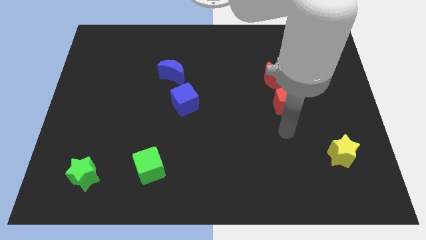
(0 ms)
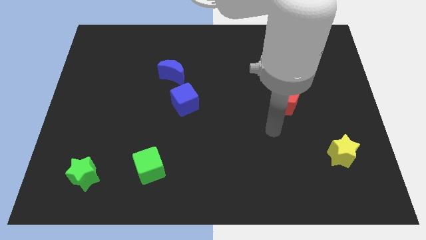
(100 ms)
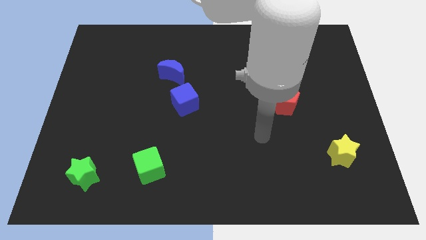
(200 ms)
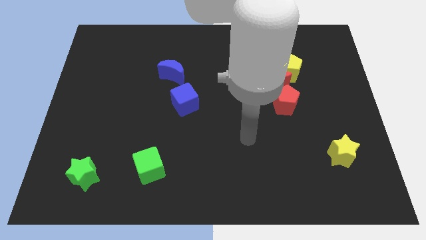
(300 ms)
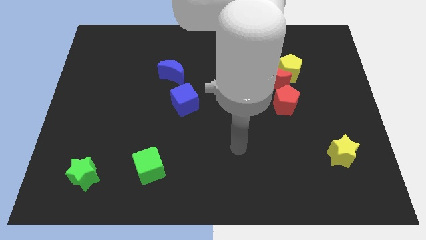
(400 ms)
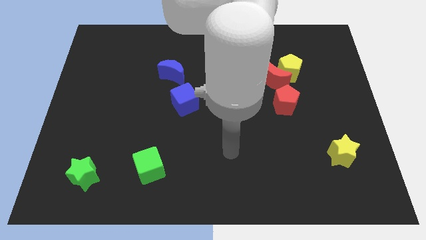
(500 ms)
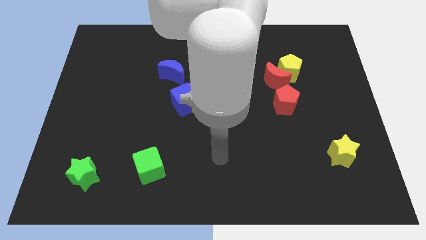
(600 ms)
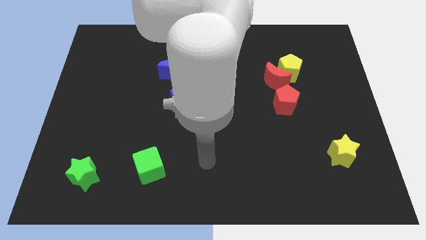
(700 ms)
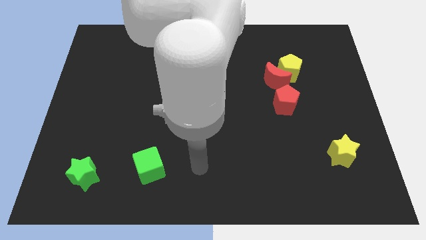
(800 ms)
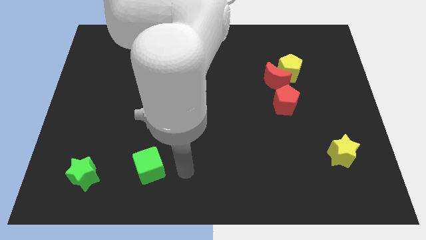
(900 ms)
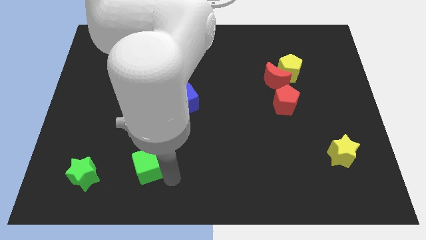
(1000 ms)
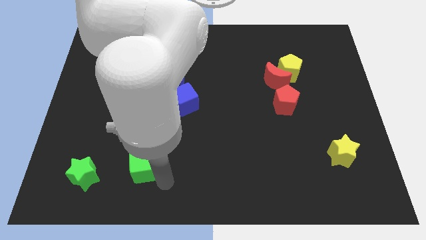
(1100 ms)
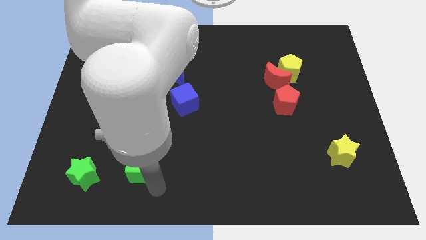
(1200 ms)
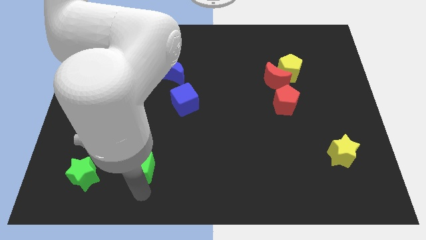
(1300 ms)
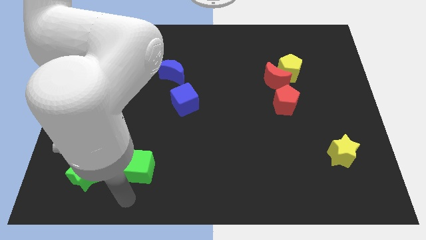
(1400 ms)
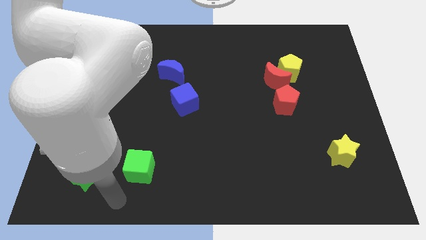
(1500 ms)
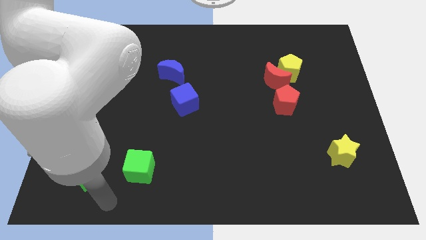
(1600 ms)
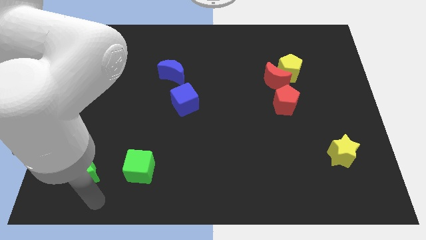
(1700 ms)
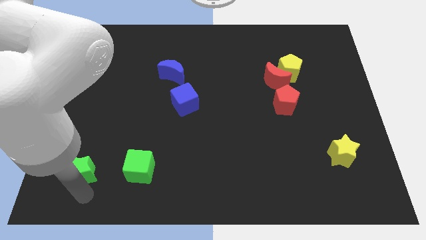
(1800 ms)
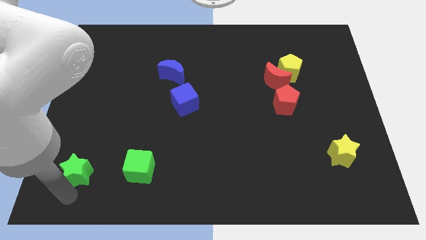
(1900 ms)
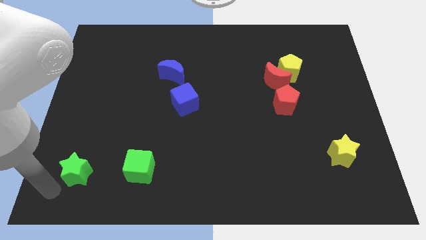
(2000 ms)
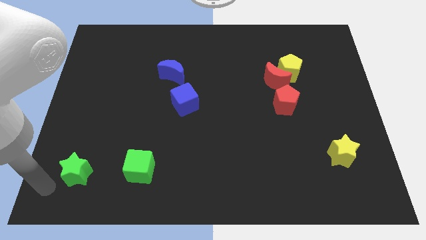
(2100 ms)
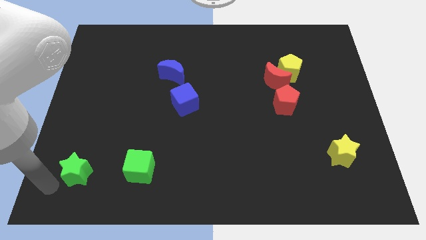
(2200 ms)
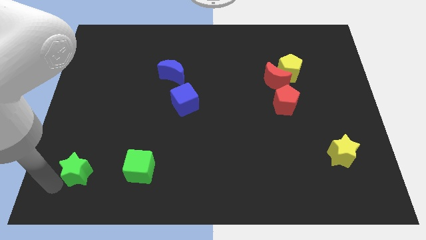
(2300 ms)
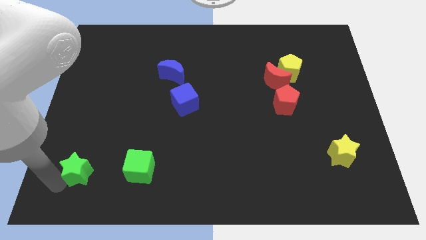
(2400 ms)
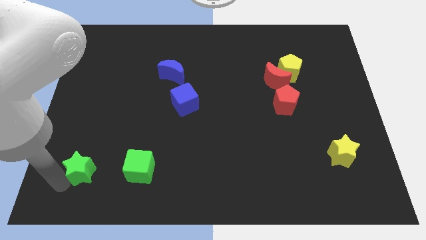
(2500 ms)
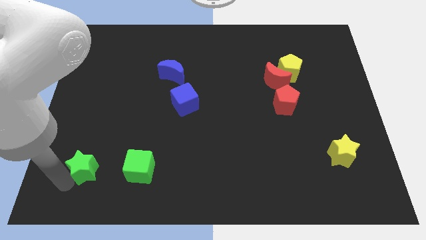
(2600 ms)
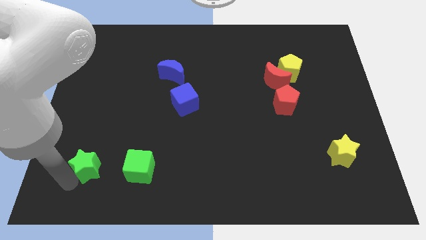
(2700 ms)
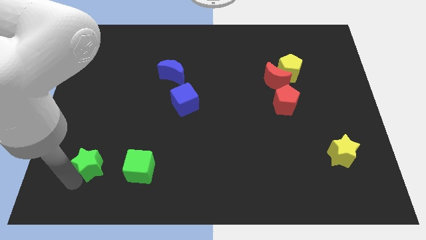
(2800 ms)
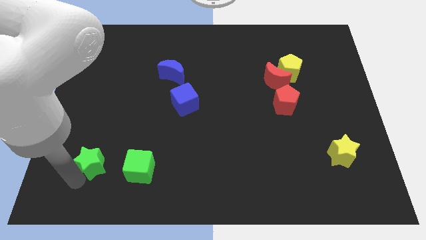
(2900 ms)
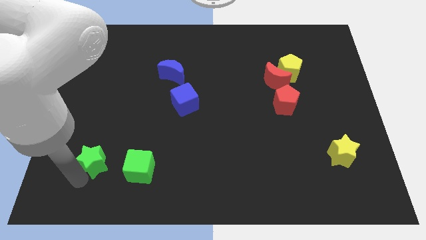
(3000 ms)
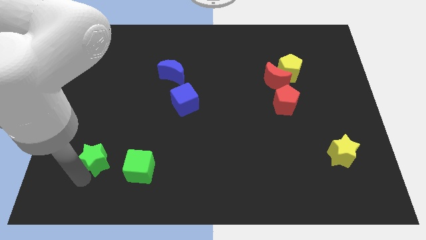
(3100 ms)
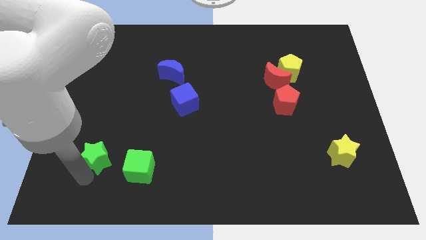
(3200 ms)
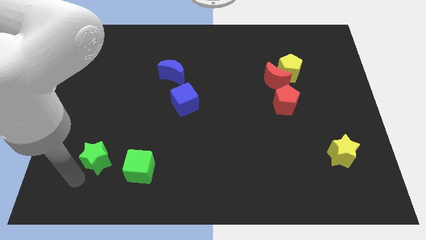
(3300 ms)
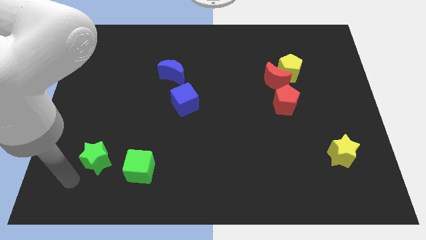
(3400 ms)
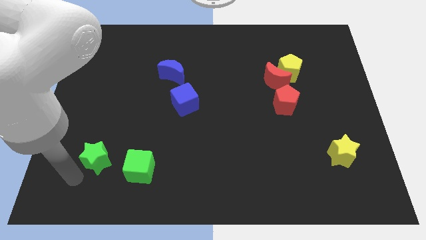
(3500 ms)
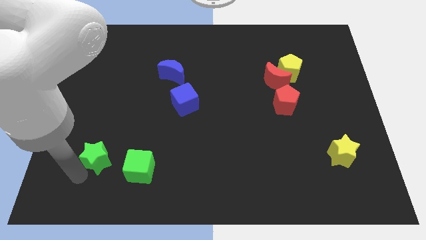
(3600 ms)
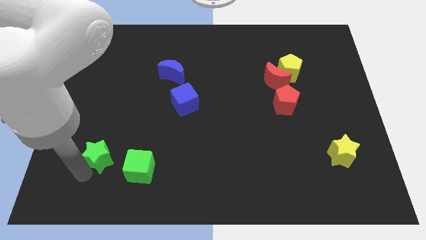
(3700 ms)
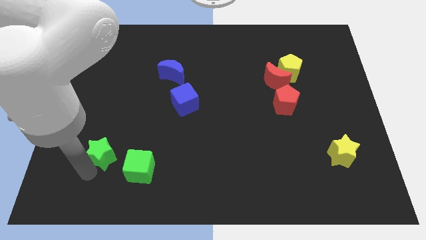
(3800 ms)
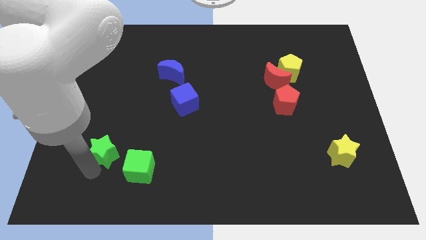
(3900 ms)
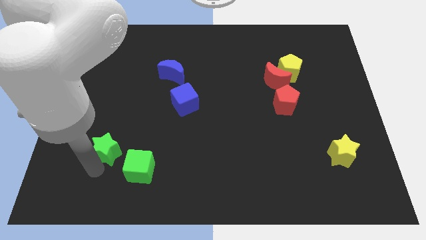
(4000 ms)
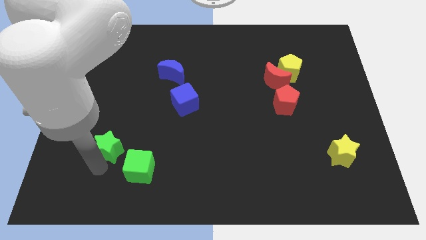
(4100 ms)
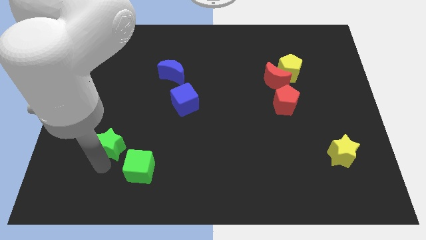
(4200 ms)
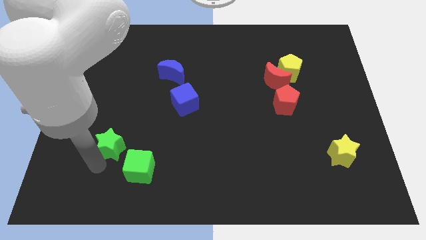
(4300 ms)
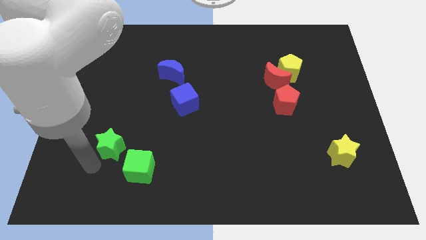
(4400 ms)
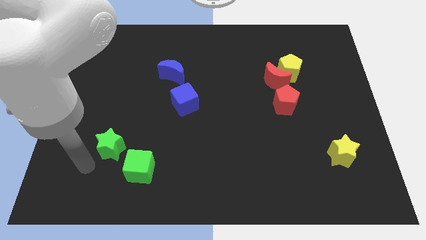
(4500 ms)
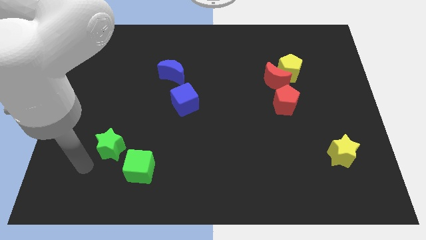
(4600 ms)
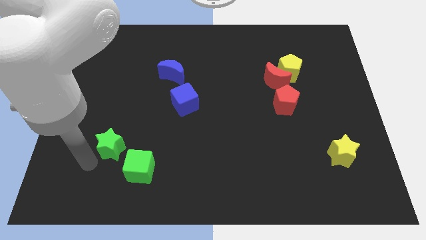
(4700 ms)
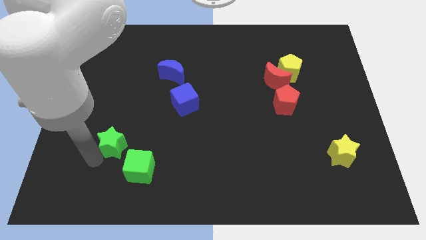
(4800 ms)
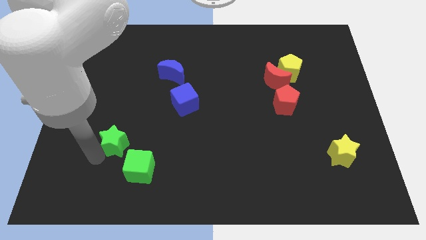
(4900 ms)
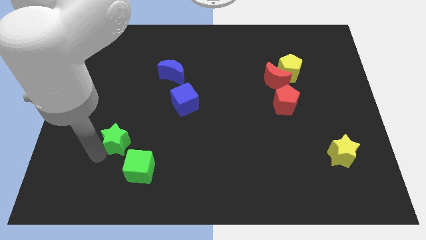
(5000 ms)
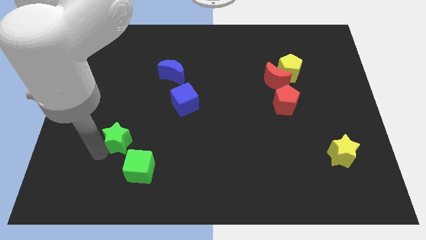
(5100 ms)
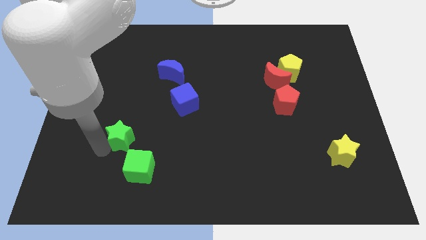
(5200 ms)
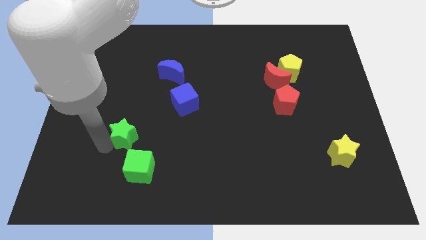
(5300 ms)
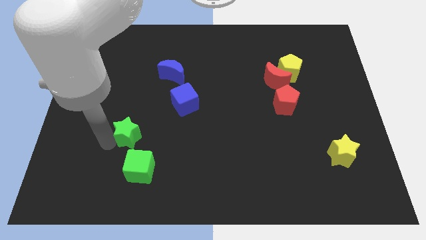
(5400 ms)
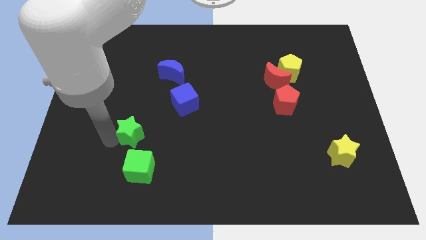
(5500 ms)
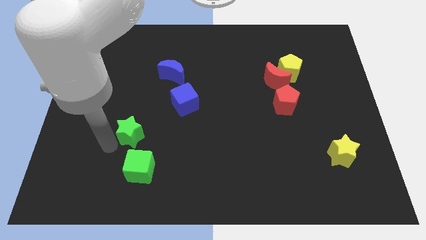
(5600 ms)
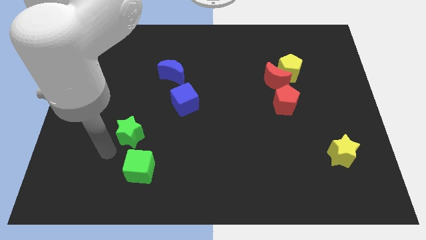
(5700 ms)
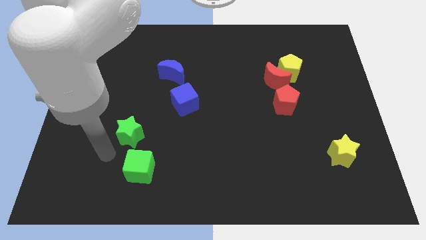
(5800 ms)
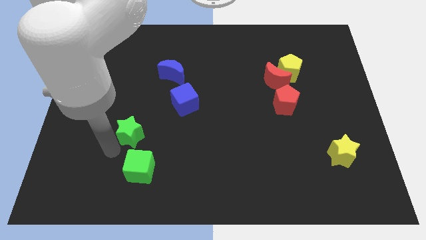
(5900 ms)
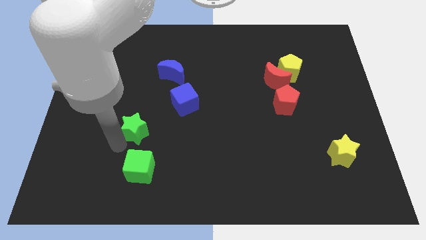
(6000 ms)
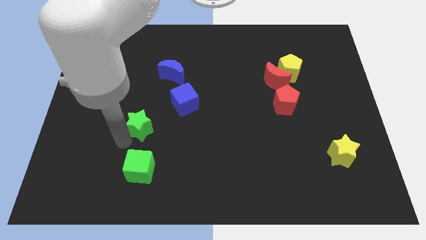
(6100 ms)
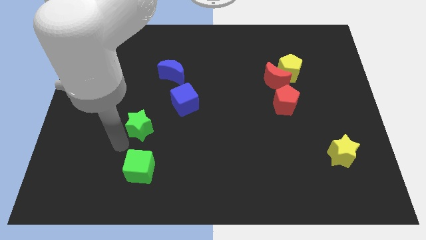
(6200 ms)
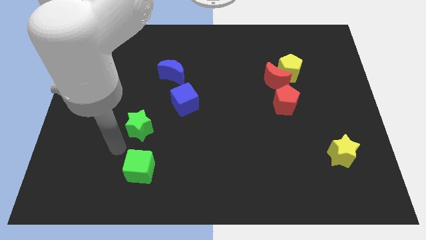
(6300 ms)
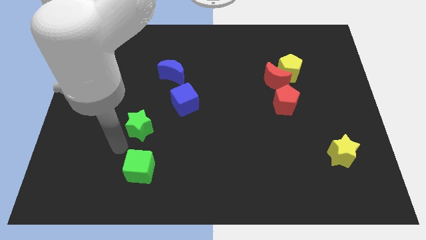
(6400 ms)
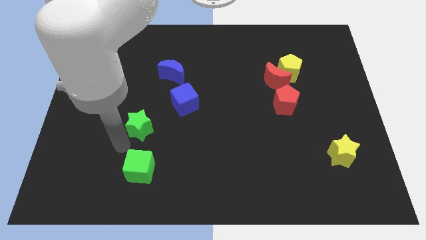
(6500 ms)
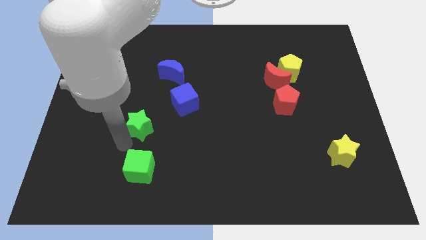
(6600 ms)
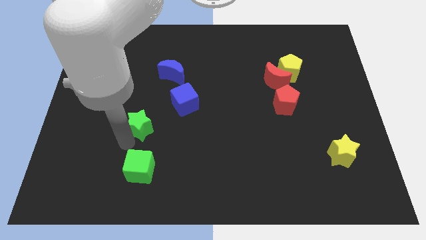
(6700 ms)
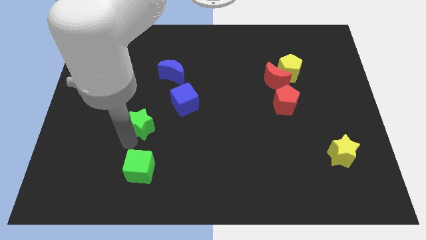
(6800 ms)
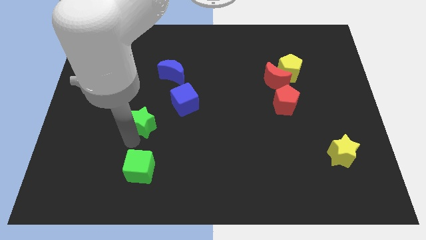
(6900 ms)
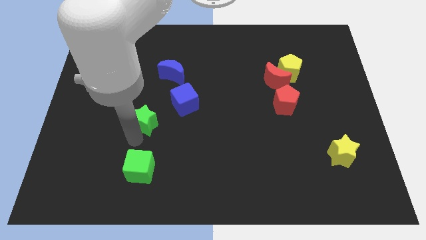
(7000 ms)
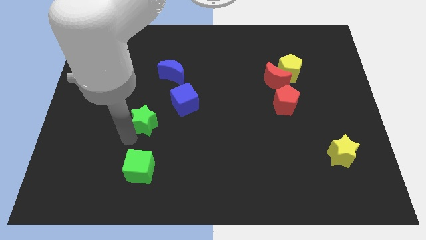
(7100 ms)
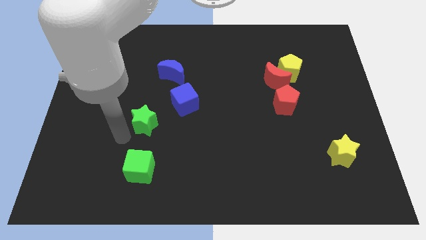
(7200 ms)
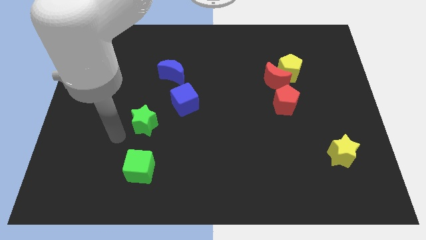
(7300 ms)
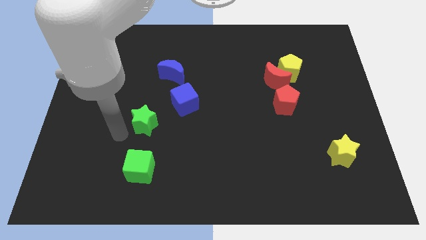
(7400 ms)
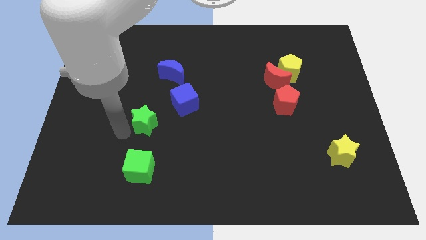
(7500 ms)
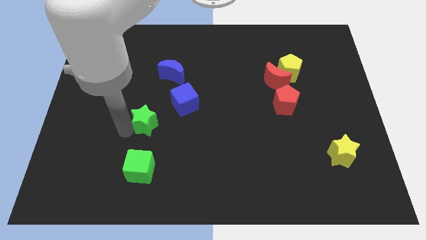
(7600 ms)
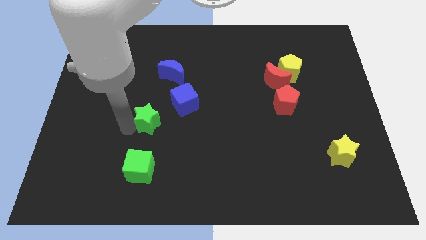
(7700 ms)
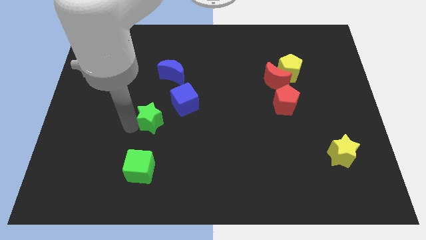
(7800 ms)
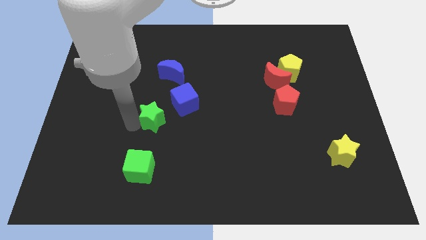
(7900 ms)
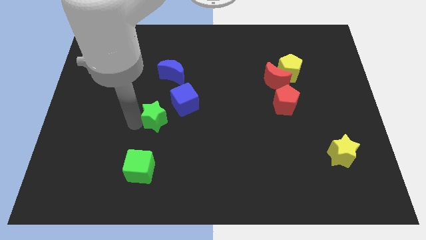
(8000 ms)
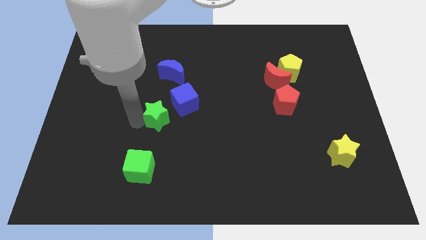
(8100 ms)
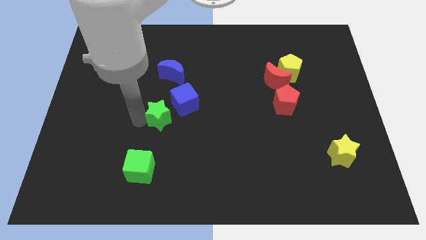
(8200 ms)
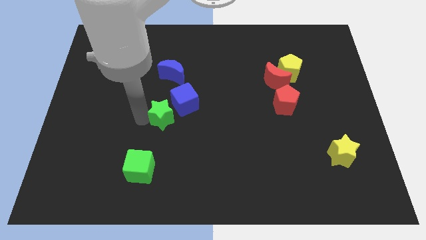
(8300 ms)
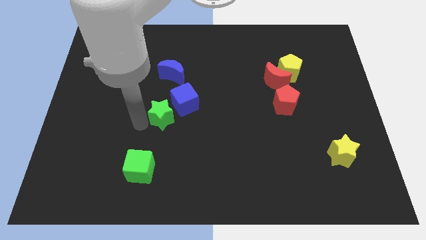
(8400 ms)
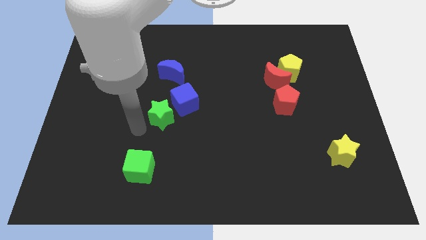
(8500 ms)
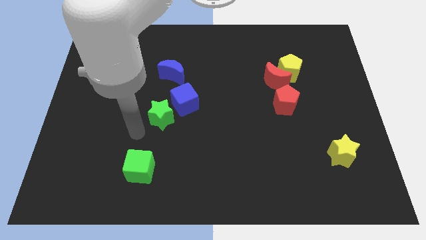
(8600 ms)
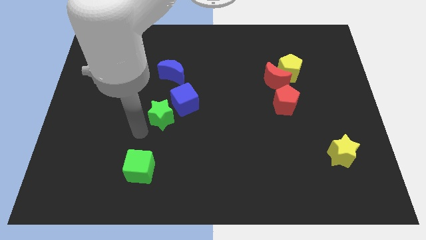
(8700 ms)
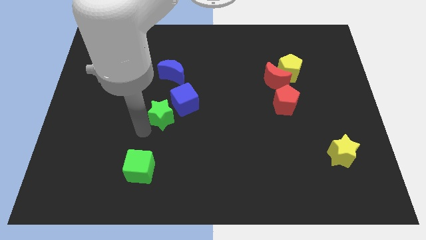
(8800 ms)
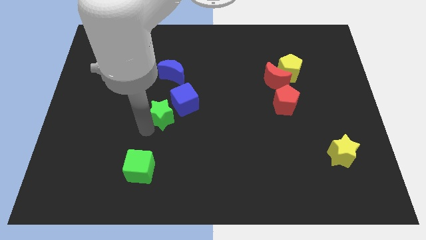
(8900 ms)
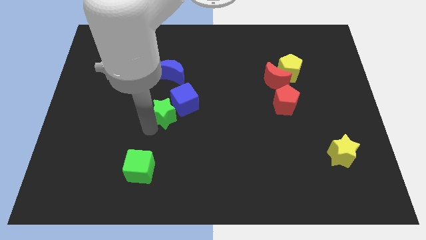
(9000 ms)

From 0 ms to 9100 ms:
move the green star next to the blue cube
